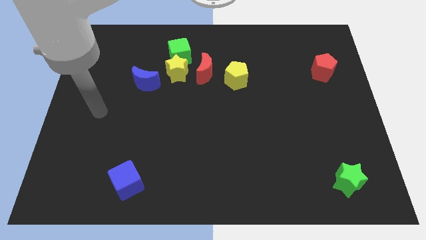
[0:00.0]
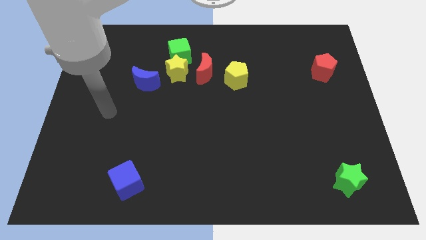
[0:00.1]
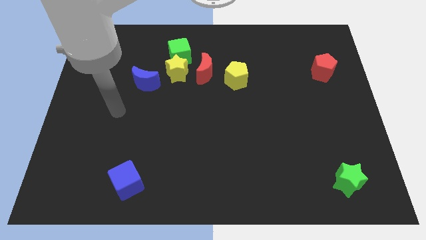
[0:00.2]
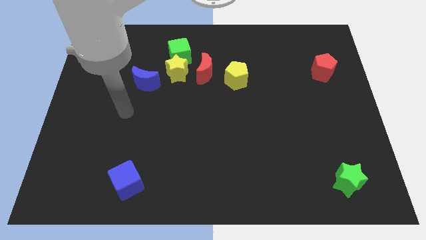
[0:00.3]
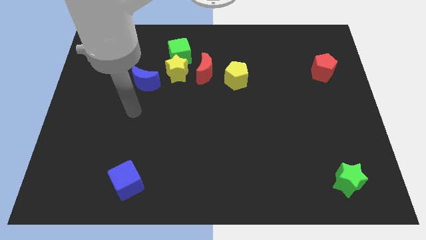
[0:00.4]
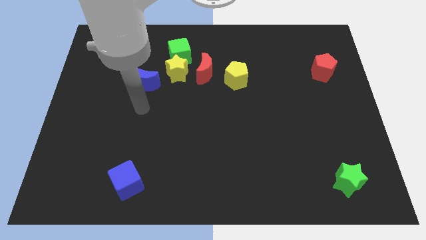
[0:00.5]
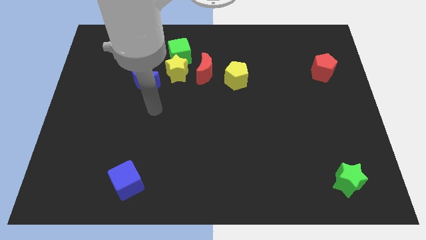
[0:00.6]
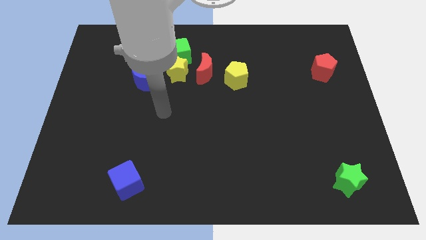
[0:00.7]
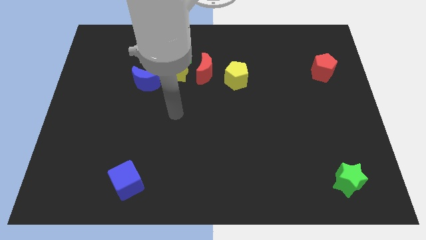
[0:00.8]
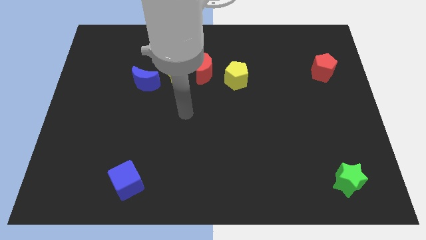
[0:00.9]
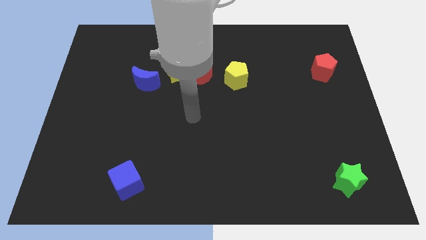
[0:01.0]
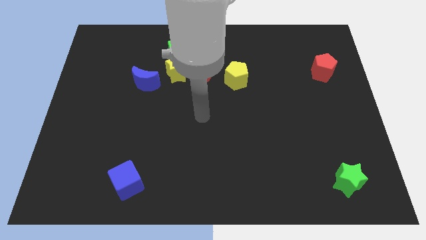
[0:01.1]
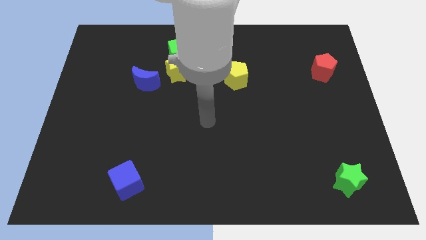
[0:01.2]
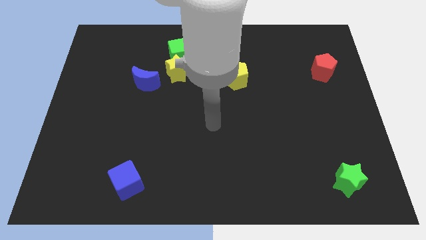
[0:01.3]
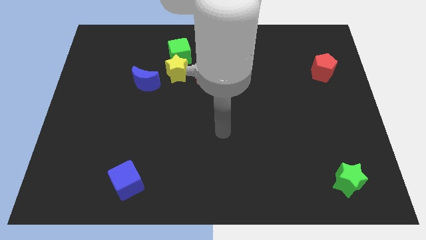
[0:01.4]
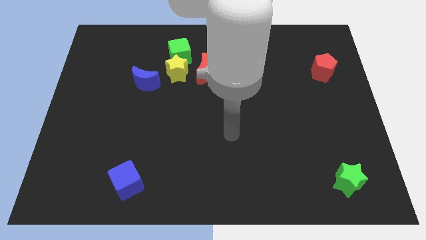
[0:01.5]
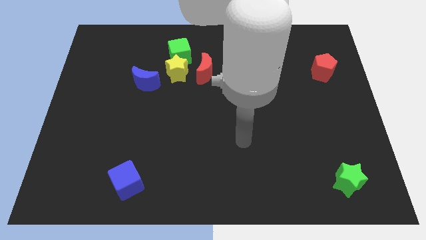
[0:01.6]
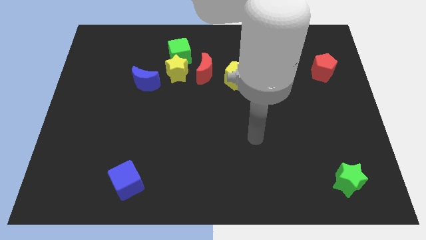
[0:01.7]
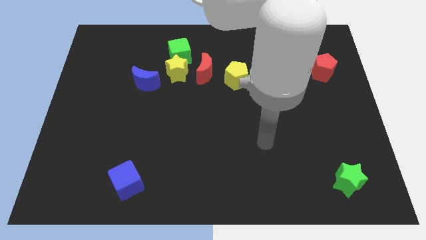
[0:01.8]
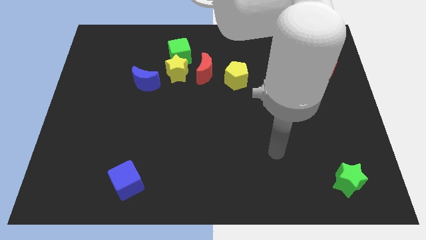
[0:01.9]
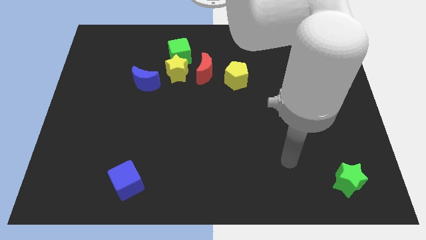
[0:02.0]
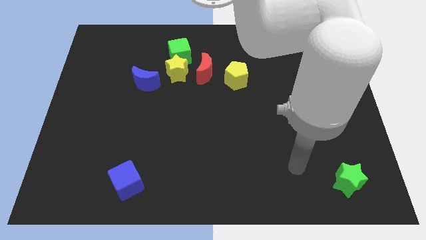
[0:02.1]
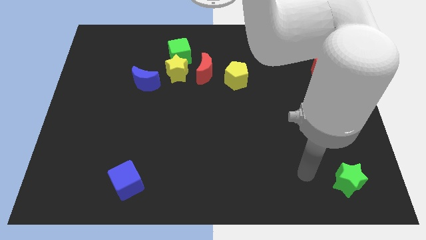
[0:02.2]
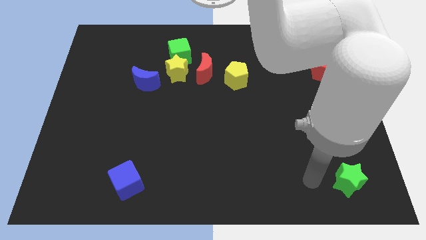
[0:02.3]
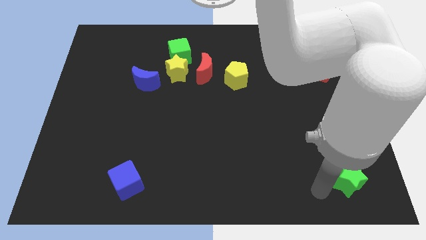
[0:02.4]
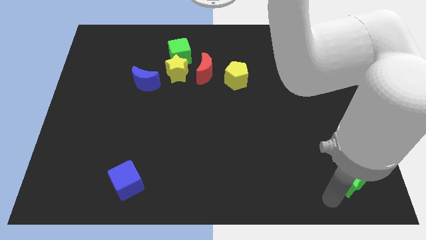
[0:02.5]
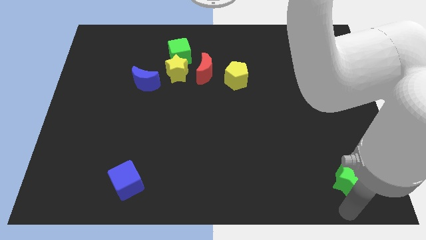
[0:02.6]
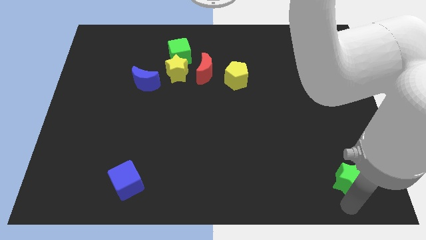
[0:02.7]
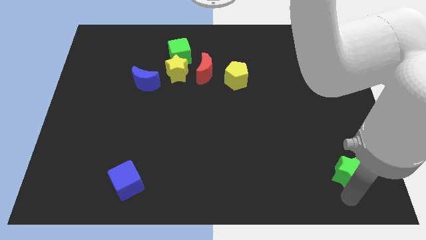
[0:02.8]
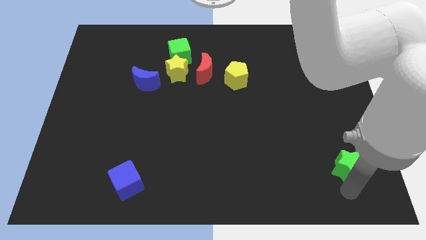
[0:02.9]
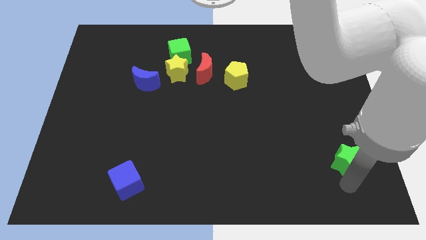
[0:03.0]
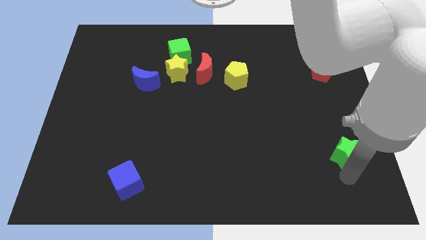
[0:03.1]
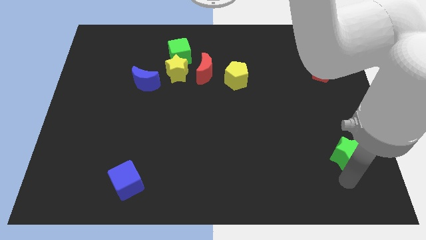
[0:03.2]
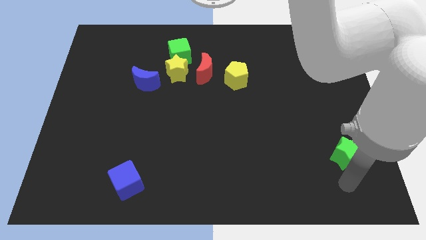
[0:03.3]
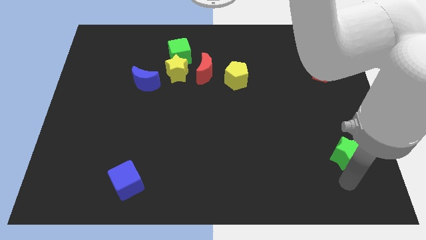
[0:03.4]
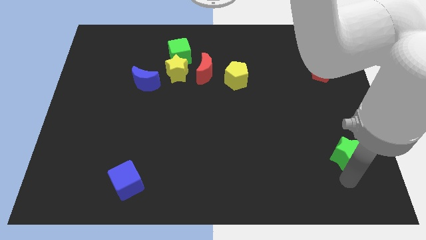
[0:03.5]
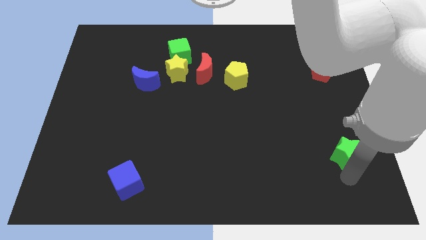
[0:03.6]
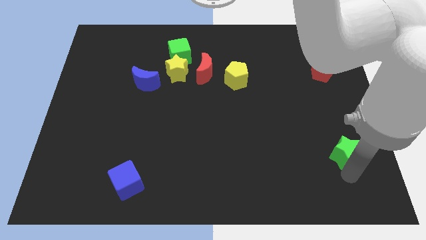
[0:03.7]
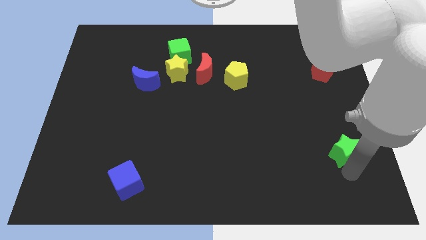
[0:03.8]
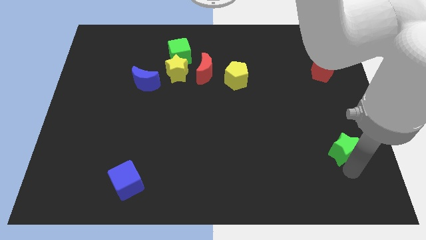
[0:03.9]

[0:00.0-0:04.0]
slightly move the green star up

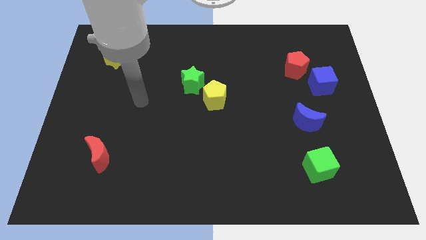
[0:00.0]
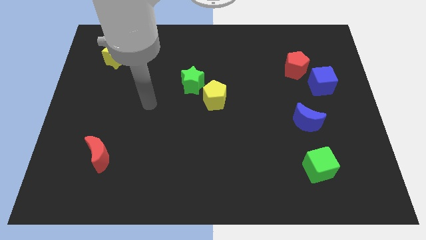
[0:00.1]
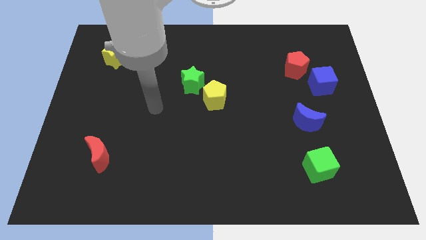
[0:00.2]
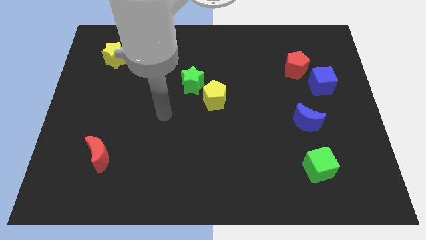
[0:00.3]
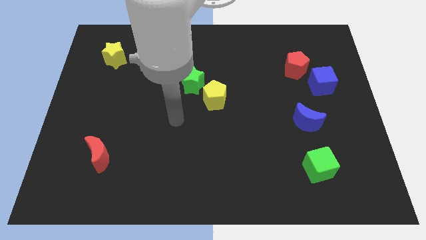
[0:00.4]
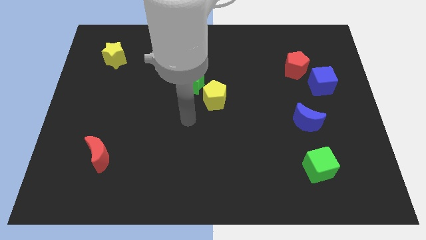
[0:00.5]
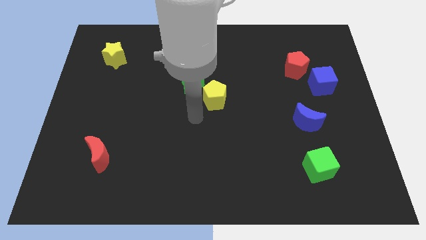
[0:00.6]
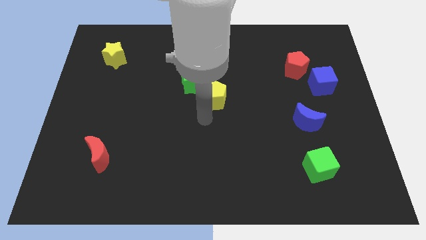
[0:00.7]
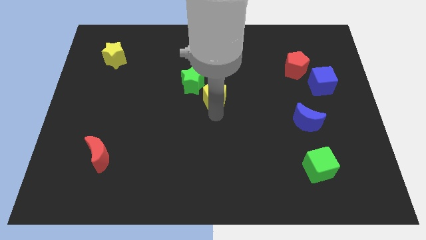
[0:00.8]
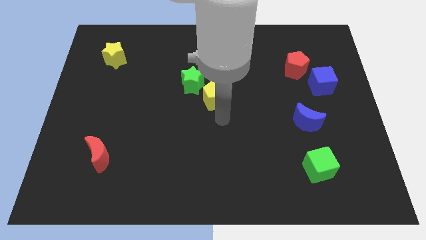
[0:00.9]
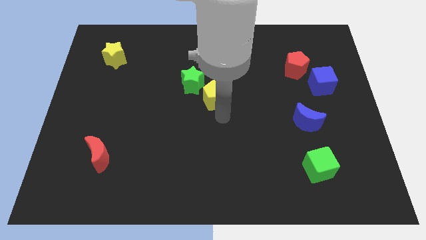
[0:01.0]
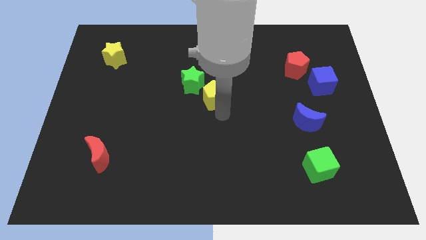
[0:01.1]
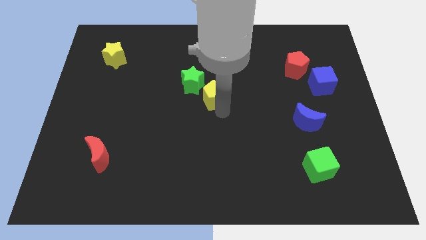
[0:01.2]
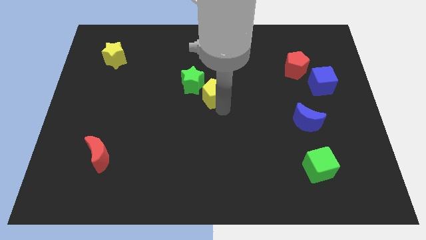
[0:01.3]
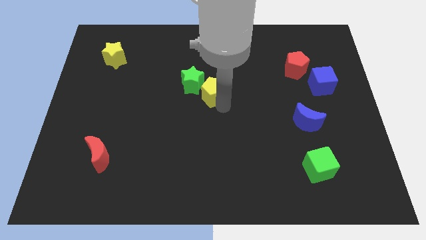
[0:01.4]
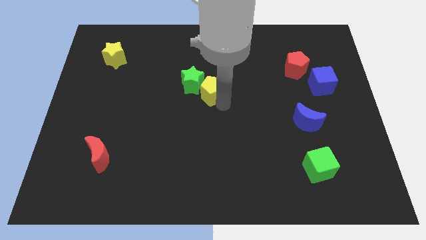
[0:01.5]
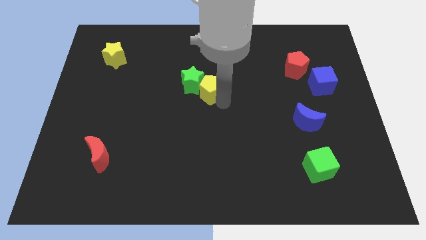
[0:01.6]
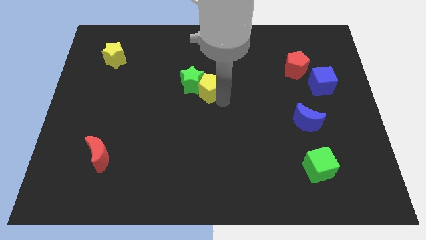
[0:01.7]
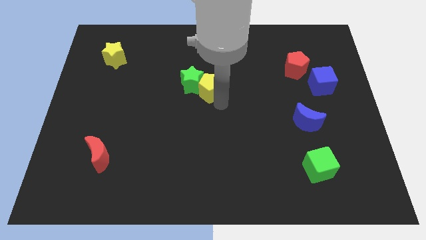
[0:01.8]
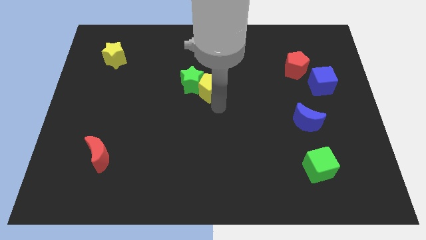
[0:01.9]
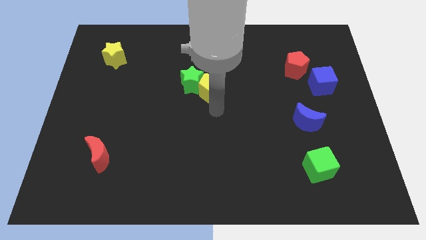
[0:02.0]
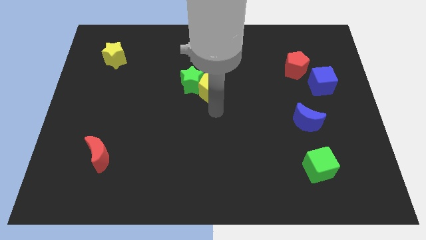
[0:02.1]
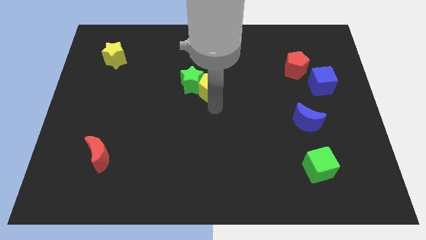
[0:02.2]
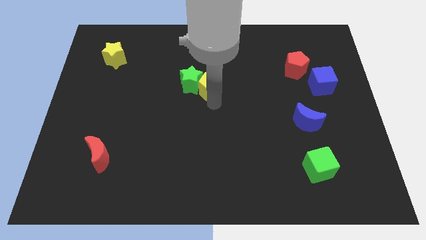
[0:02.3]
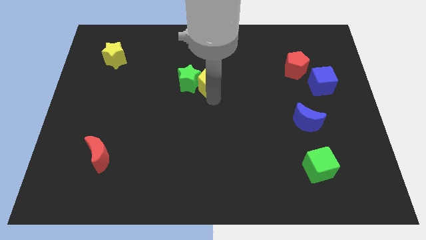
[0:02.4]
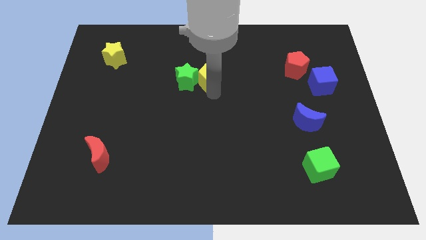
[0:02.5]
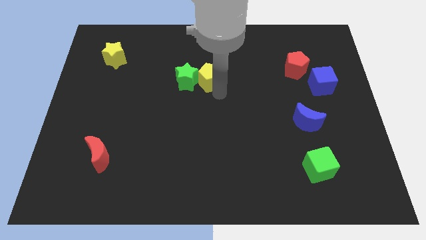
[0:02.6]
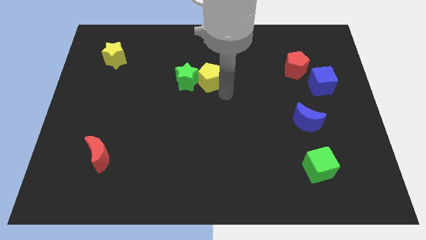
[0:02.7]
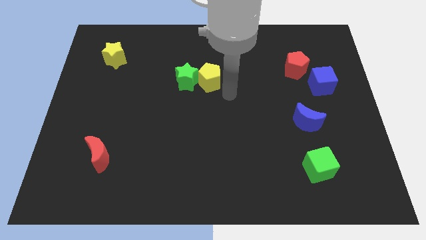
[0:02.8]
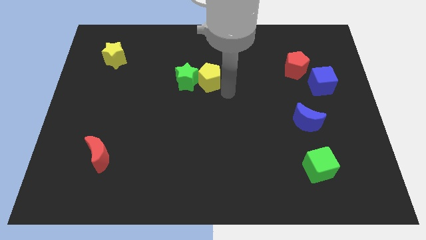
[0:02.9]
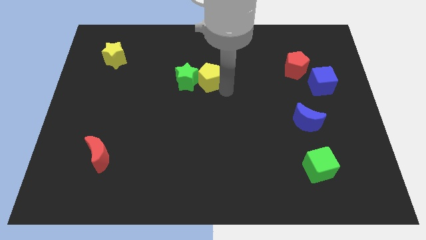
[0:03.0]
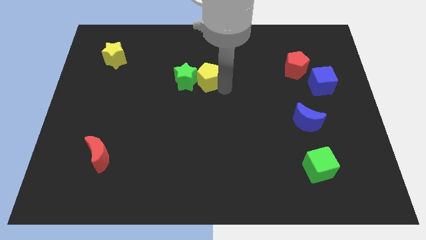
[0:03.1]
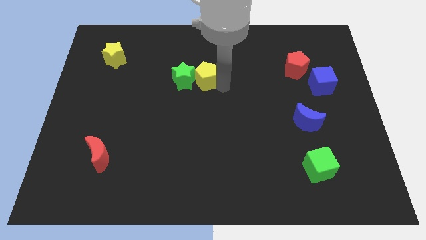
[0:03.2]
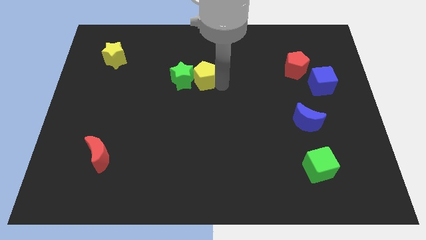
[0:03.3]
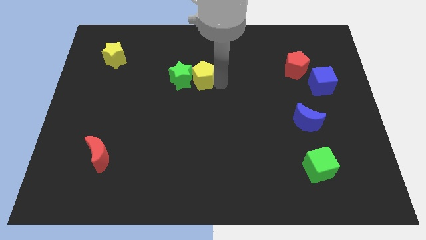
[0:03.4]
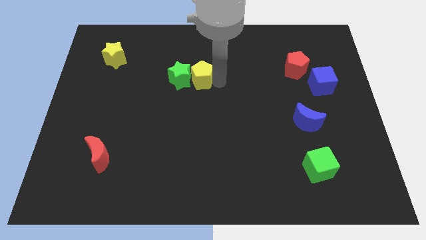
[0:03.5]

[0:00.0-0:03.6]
move the yellow pentagon diagonally up and to the left a bit

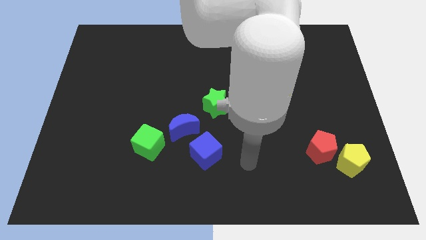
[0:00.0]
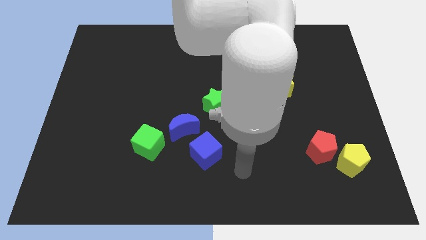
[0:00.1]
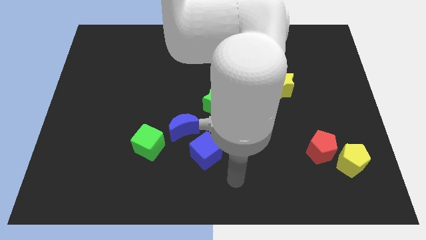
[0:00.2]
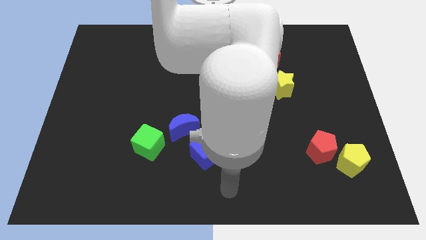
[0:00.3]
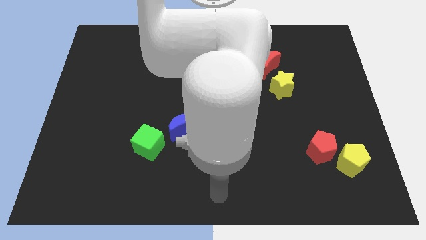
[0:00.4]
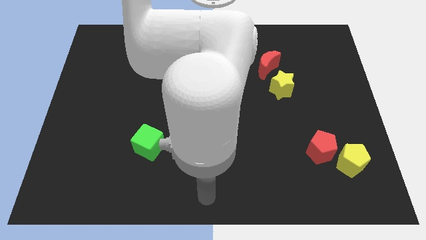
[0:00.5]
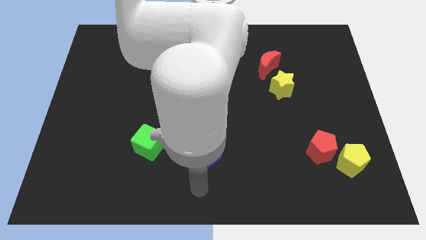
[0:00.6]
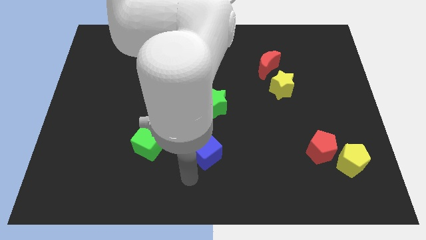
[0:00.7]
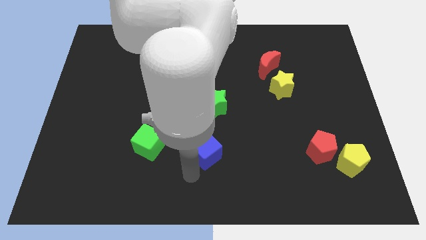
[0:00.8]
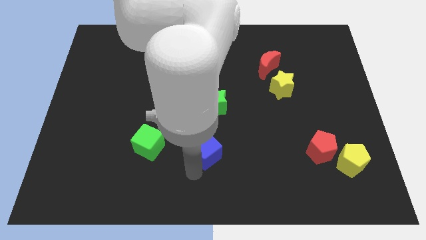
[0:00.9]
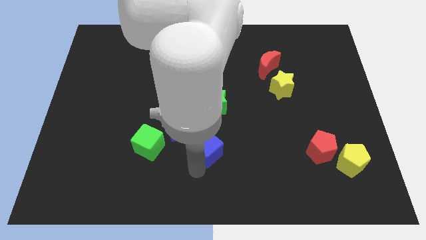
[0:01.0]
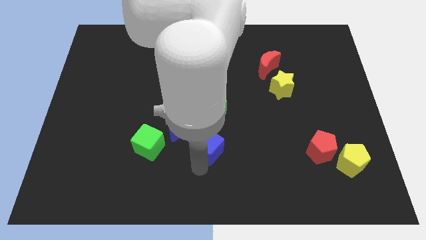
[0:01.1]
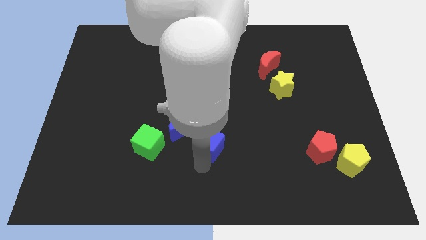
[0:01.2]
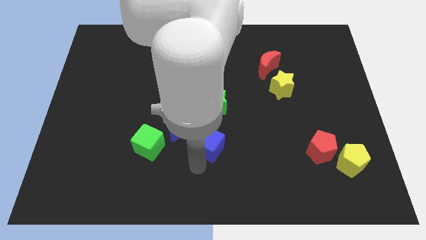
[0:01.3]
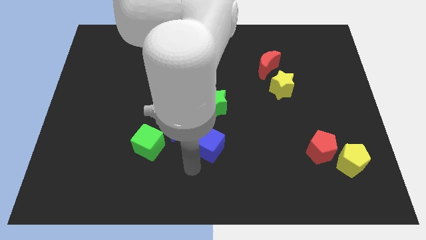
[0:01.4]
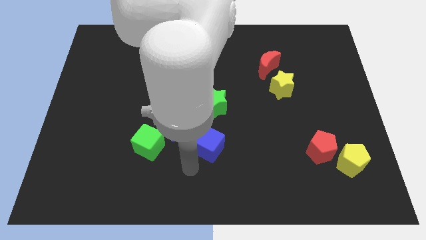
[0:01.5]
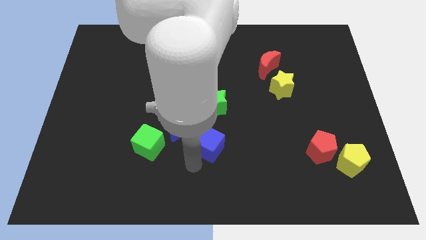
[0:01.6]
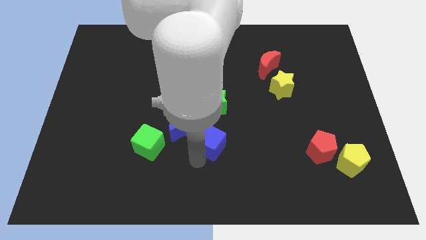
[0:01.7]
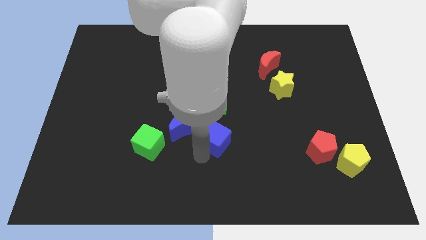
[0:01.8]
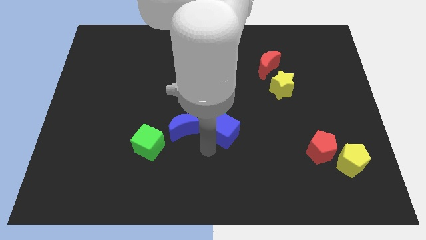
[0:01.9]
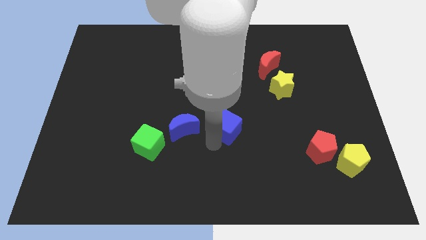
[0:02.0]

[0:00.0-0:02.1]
push the blue cube upwards and right diagonally a bit
